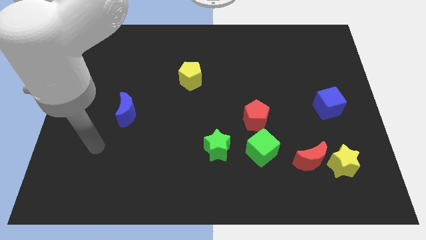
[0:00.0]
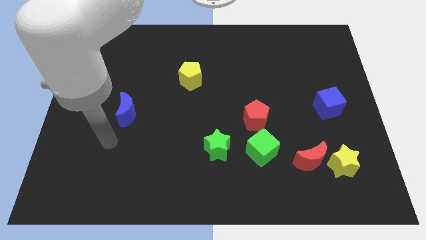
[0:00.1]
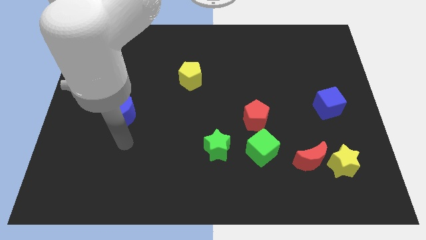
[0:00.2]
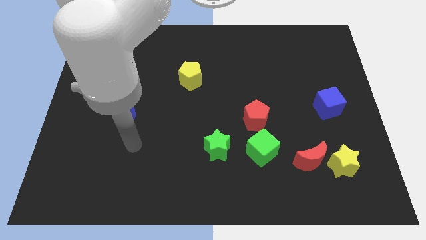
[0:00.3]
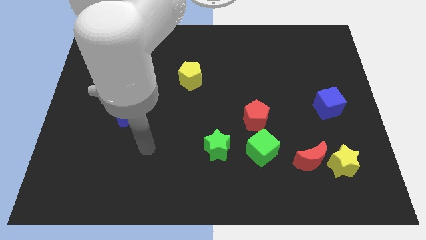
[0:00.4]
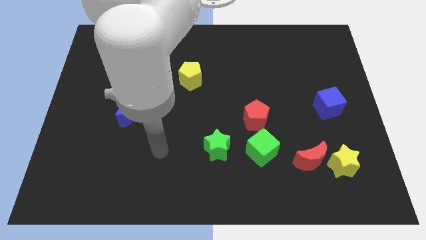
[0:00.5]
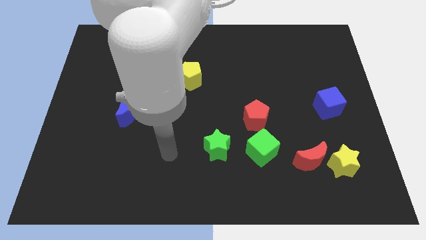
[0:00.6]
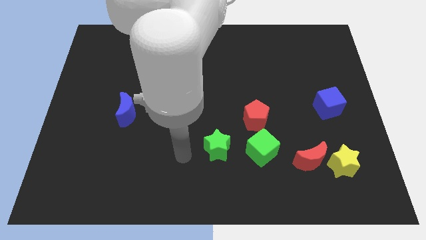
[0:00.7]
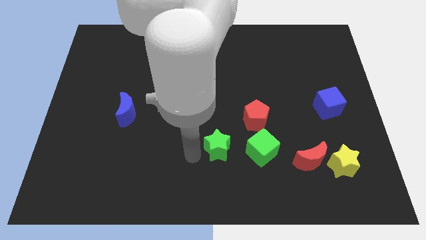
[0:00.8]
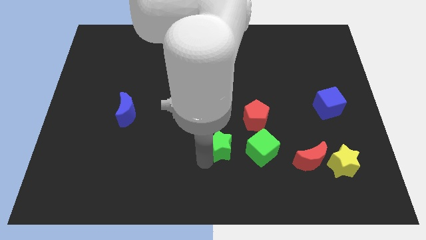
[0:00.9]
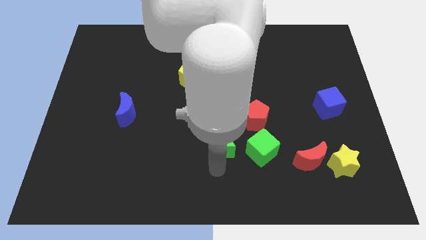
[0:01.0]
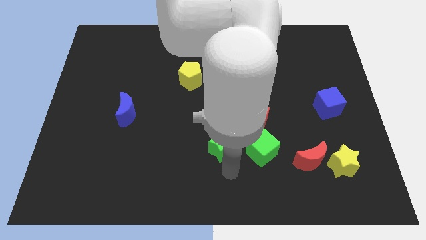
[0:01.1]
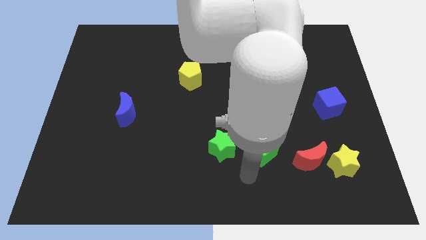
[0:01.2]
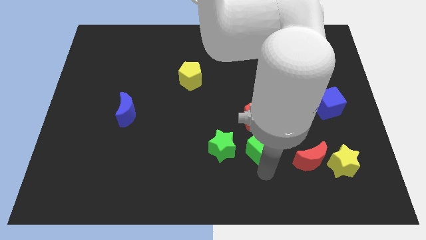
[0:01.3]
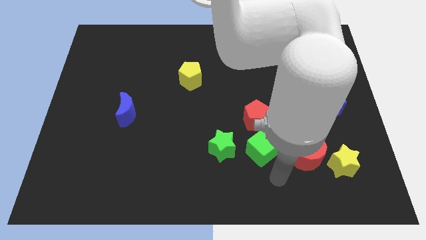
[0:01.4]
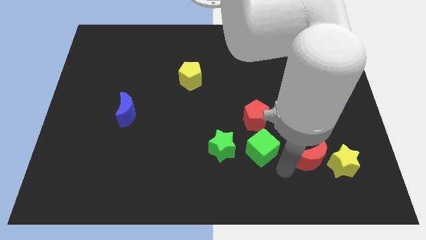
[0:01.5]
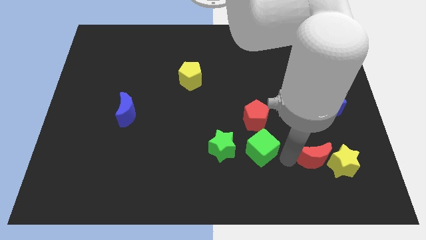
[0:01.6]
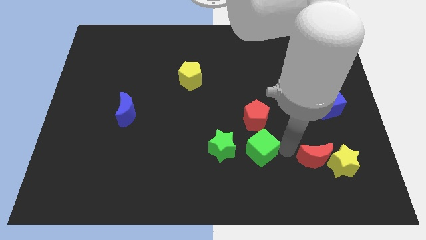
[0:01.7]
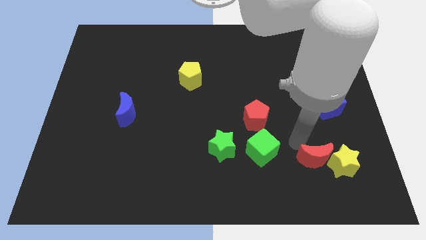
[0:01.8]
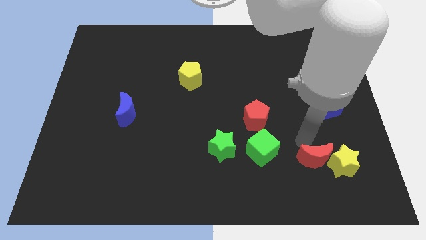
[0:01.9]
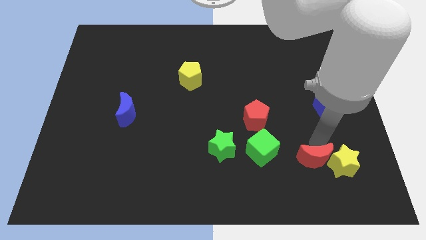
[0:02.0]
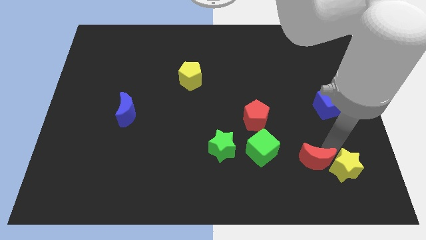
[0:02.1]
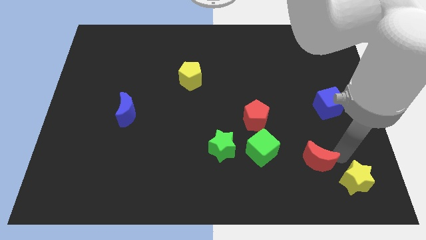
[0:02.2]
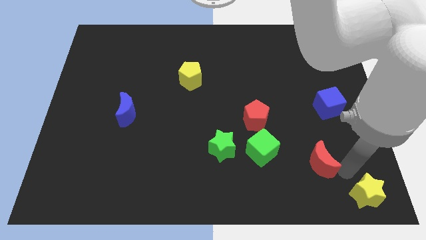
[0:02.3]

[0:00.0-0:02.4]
move the red moon away from the yellow star

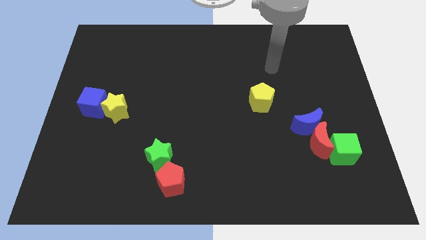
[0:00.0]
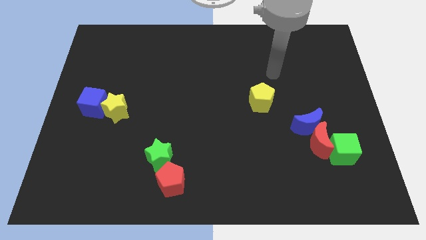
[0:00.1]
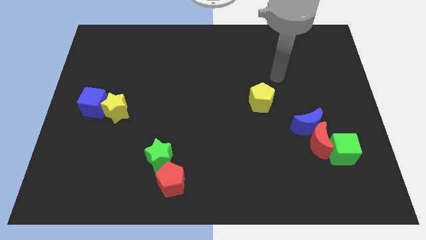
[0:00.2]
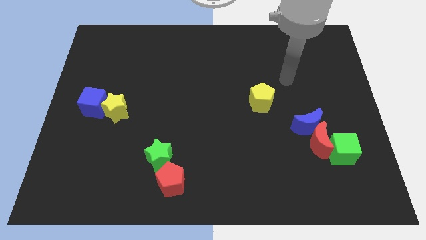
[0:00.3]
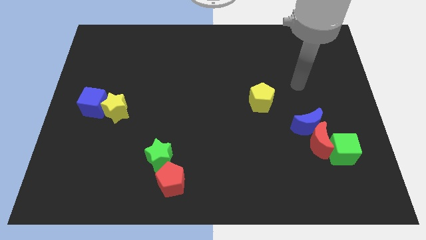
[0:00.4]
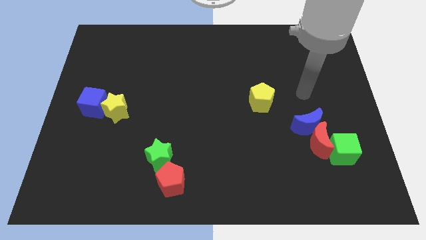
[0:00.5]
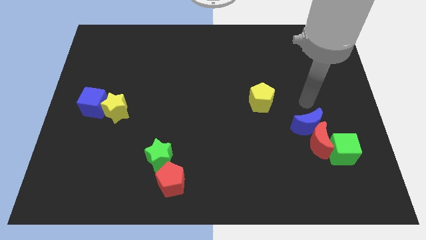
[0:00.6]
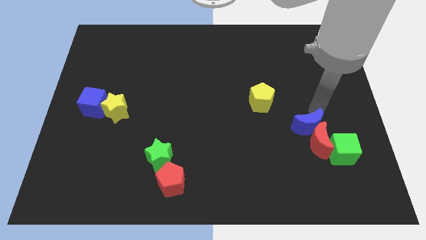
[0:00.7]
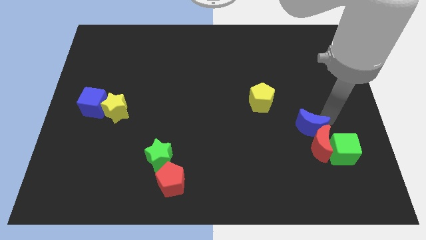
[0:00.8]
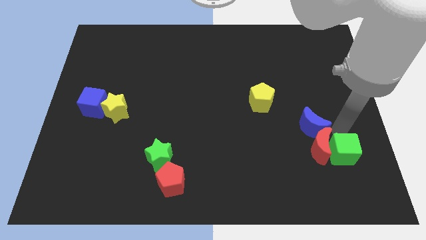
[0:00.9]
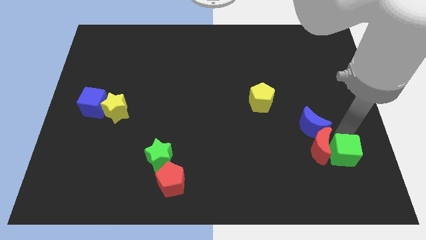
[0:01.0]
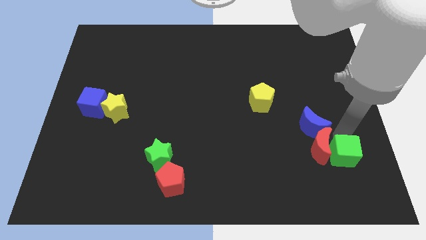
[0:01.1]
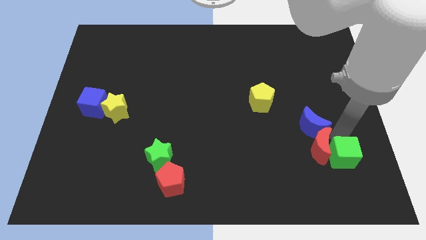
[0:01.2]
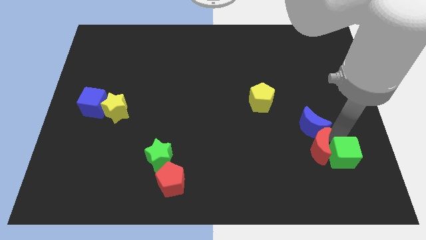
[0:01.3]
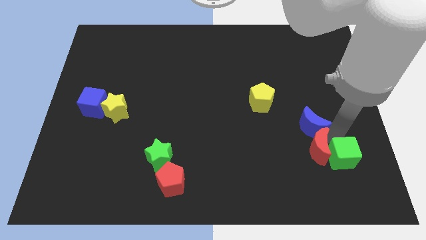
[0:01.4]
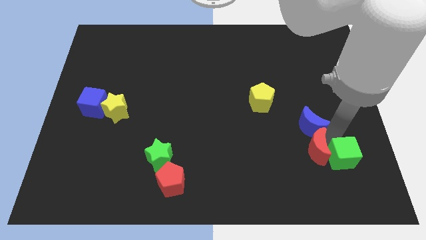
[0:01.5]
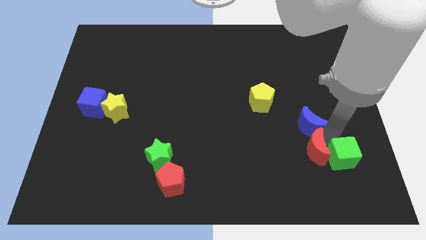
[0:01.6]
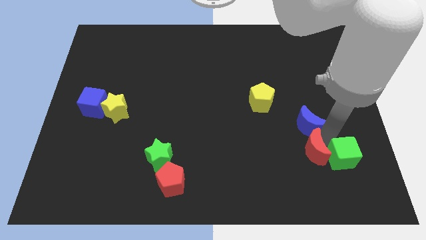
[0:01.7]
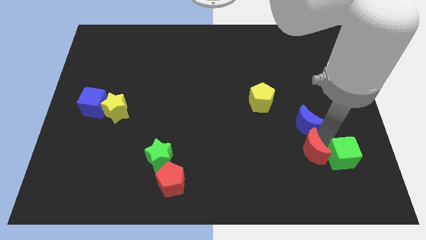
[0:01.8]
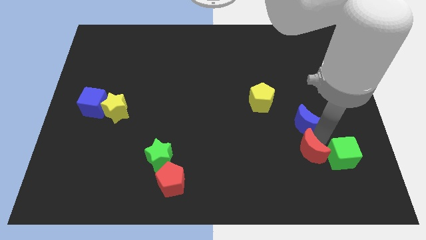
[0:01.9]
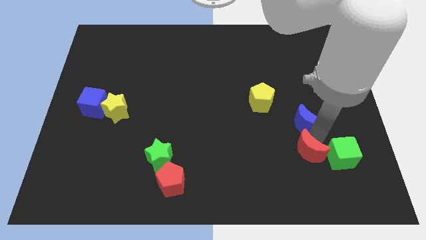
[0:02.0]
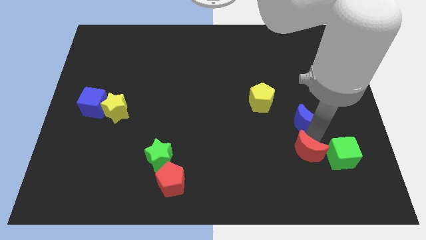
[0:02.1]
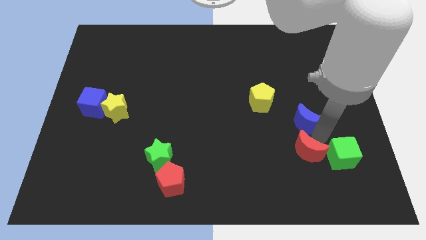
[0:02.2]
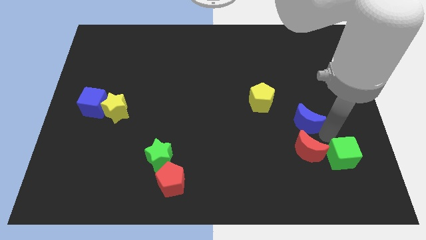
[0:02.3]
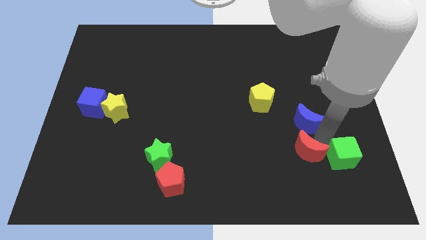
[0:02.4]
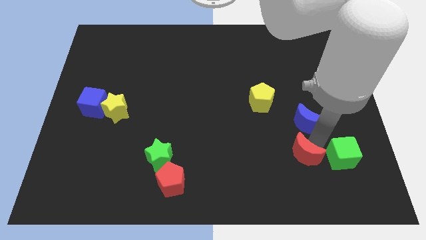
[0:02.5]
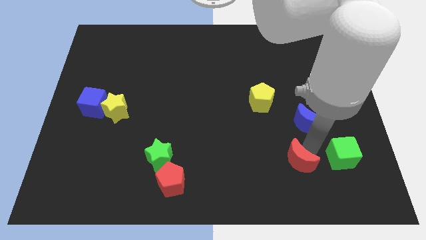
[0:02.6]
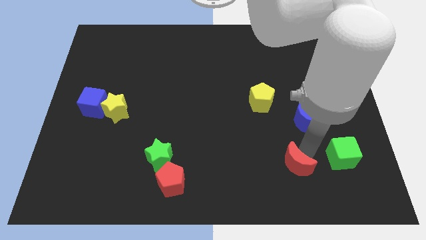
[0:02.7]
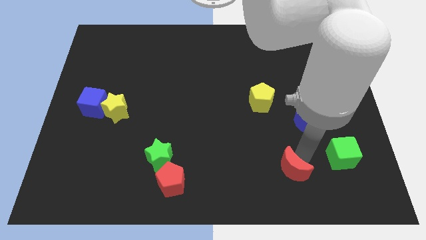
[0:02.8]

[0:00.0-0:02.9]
separate the red moon from the blue moon and green cube

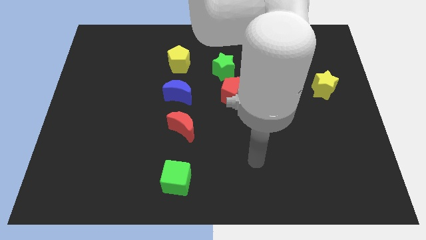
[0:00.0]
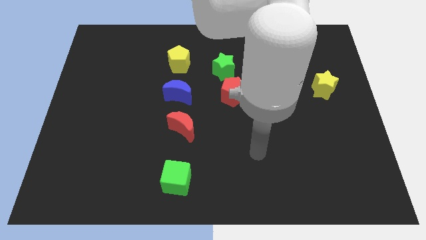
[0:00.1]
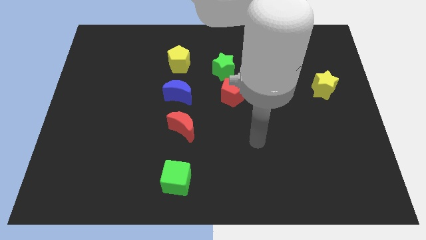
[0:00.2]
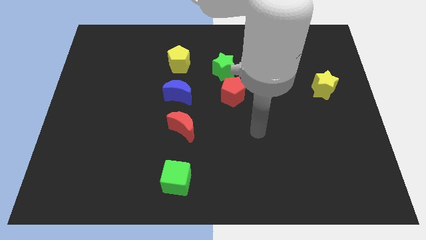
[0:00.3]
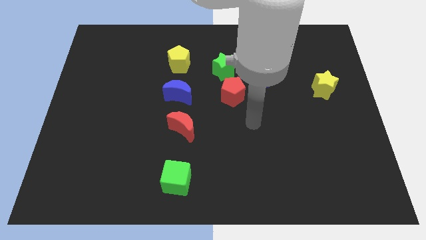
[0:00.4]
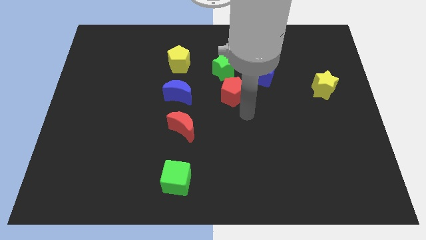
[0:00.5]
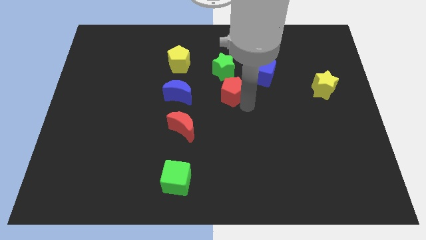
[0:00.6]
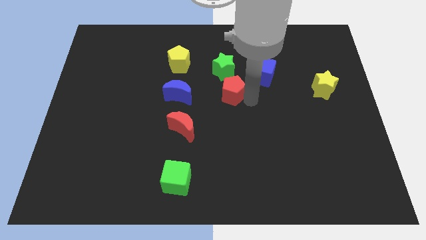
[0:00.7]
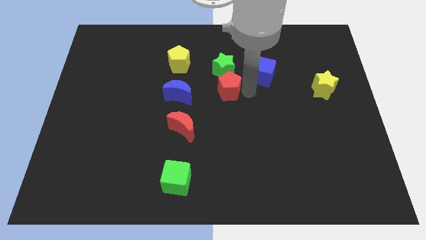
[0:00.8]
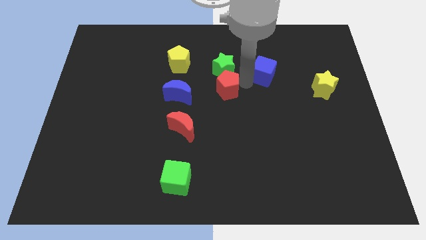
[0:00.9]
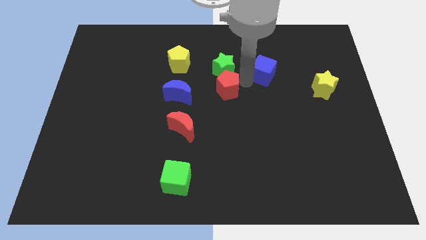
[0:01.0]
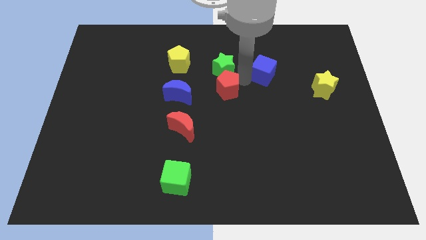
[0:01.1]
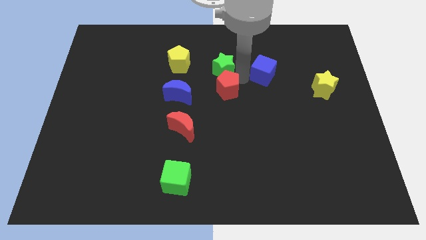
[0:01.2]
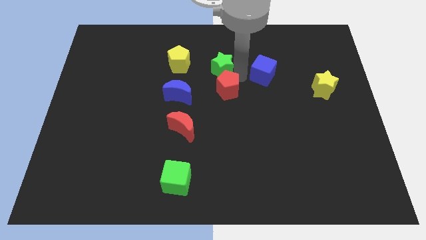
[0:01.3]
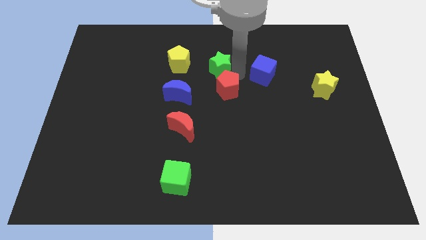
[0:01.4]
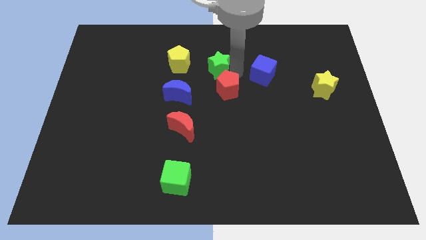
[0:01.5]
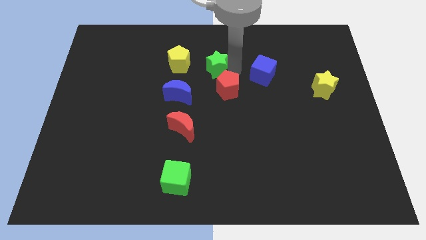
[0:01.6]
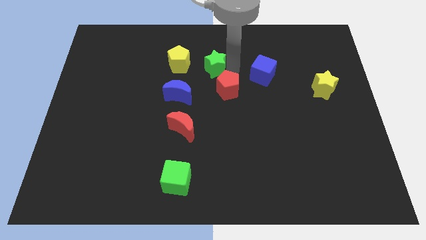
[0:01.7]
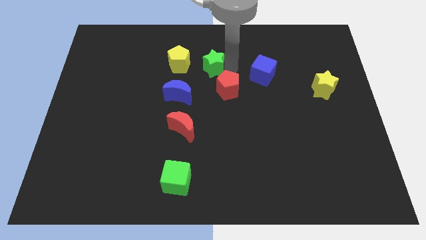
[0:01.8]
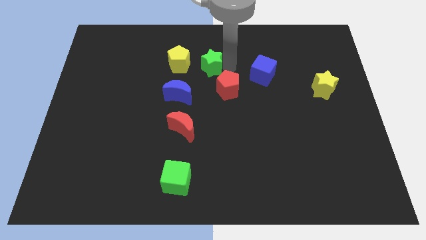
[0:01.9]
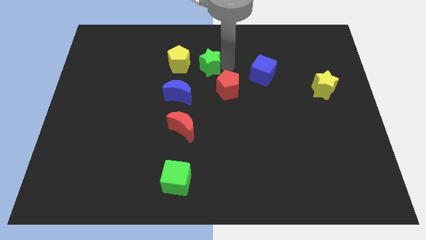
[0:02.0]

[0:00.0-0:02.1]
move the green star away from the red pentagon and blue cube

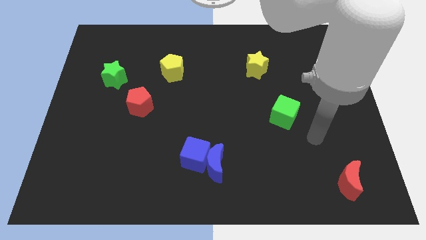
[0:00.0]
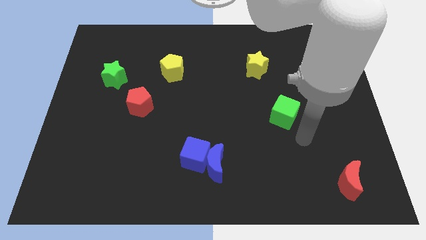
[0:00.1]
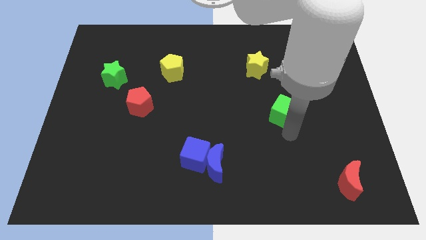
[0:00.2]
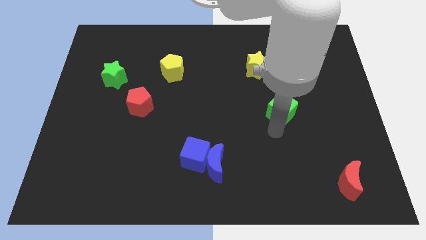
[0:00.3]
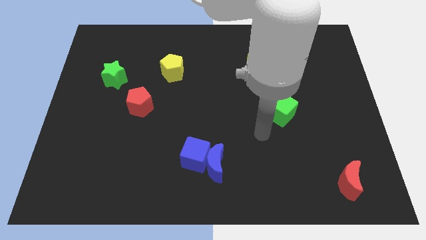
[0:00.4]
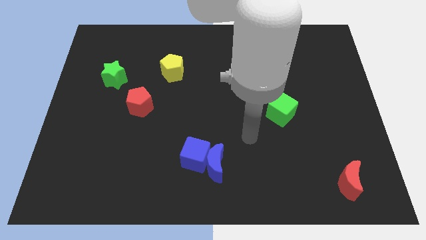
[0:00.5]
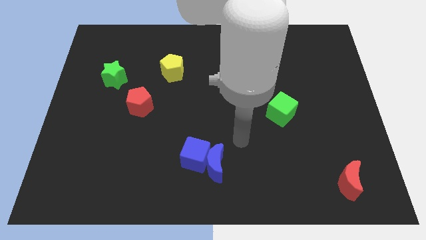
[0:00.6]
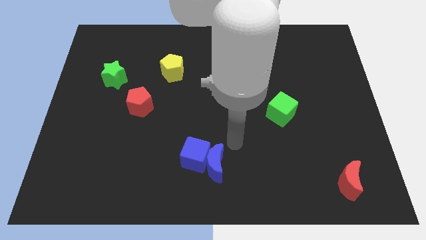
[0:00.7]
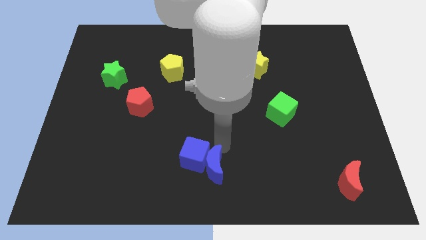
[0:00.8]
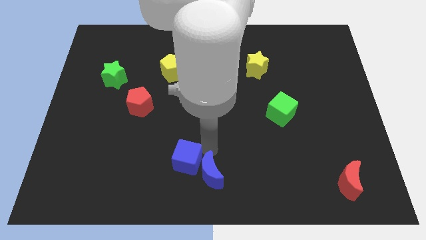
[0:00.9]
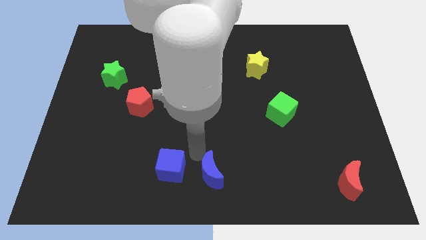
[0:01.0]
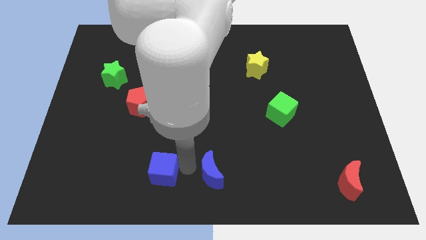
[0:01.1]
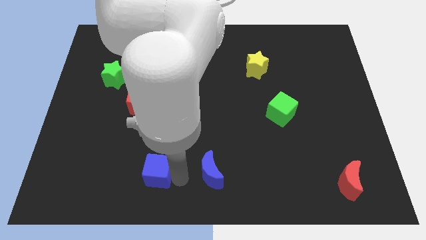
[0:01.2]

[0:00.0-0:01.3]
pull the blue moon apart from the blue cube

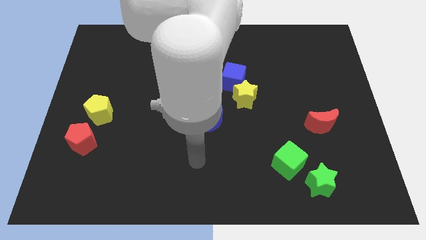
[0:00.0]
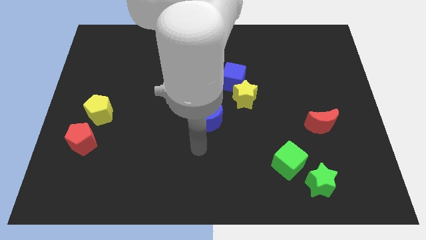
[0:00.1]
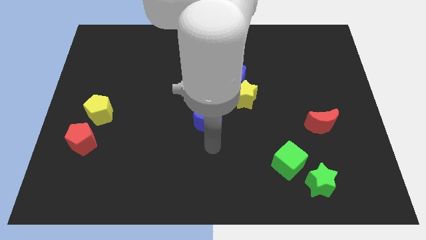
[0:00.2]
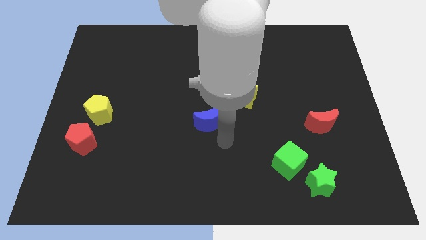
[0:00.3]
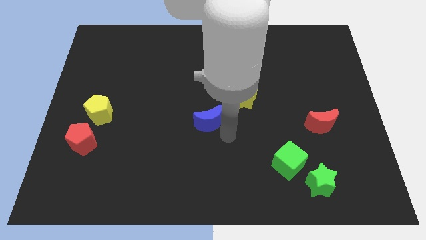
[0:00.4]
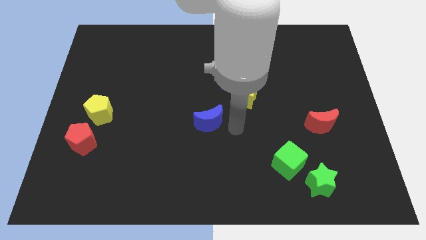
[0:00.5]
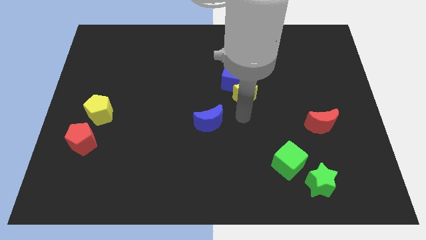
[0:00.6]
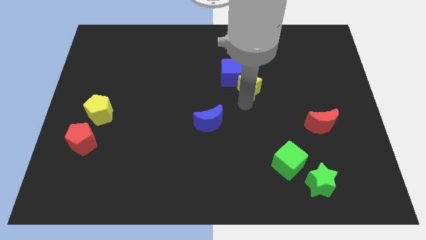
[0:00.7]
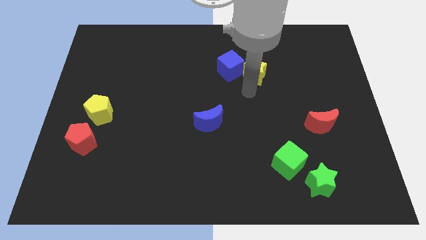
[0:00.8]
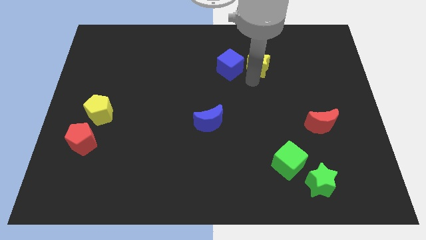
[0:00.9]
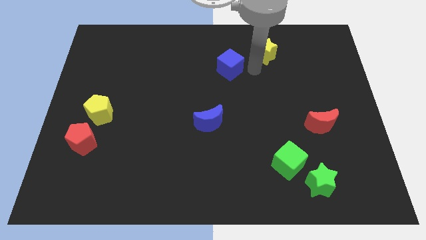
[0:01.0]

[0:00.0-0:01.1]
separate the blue cube from the yellow star
